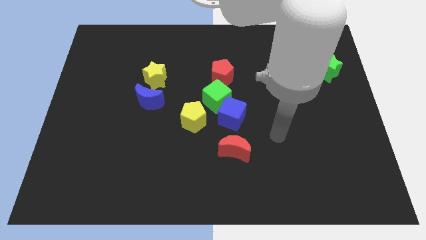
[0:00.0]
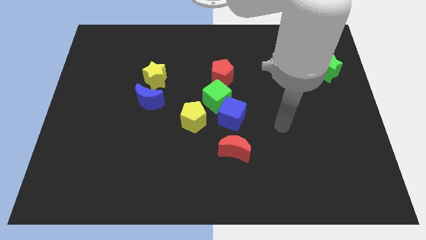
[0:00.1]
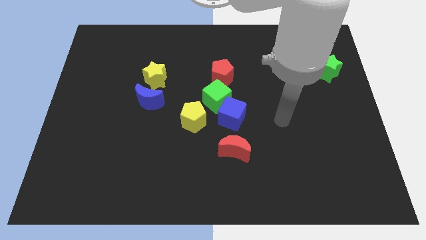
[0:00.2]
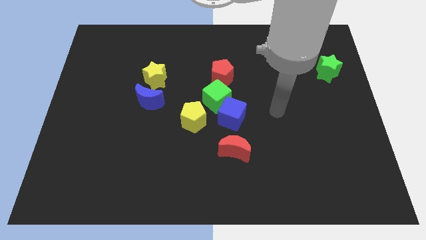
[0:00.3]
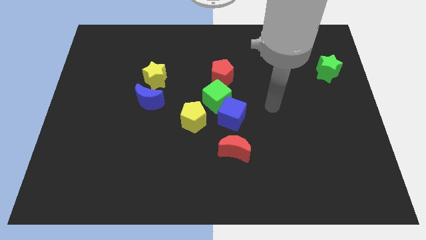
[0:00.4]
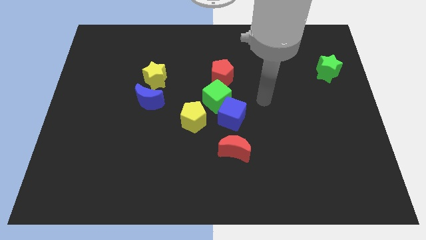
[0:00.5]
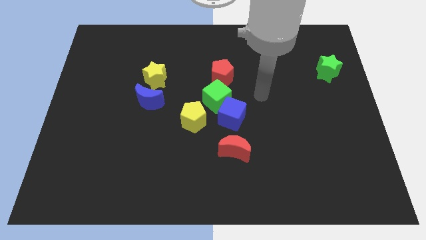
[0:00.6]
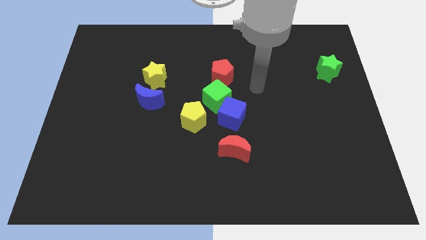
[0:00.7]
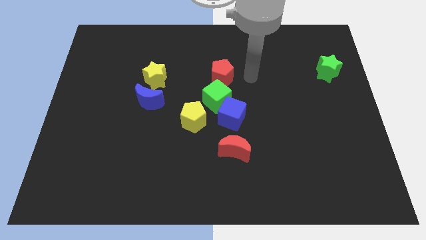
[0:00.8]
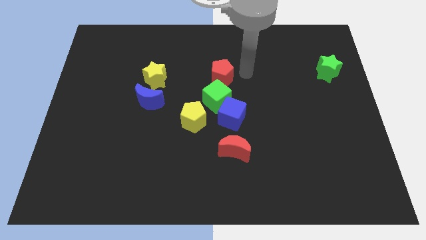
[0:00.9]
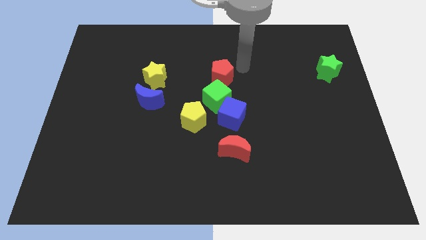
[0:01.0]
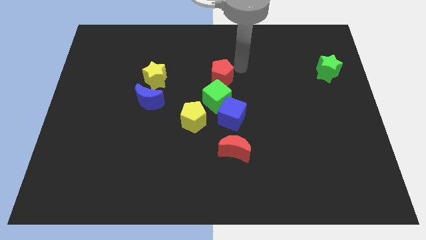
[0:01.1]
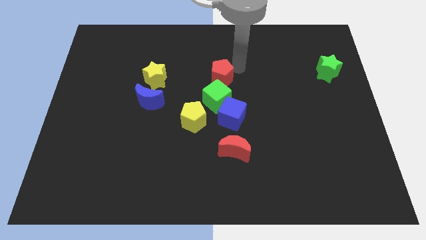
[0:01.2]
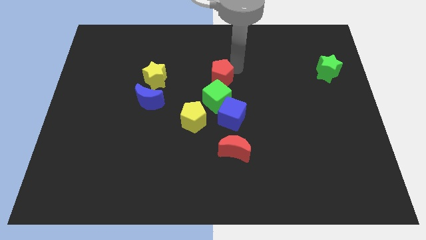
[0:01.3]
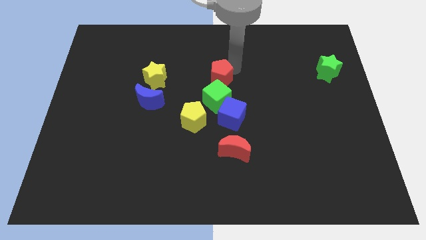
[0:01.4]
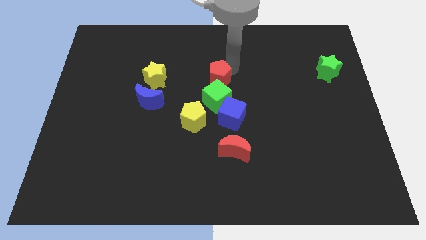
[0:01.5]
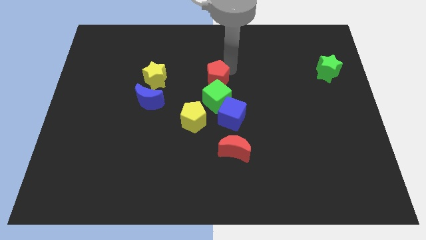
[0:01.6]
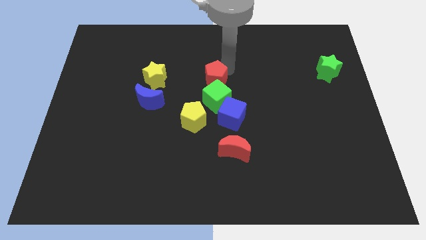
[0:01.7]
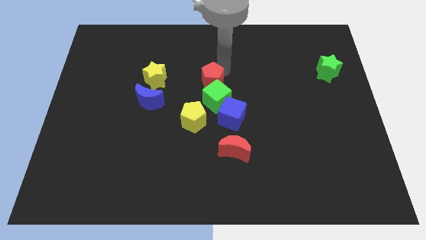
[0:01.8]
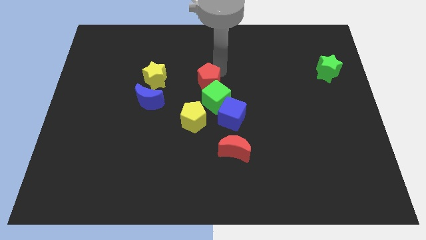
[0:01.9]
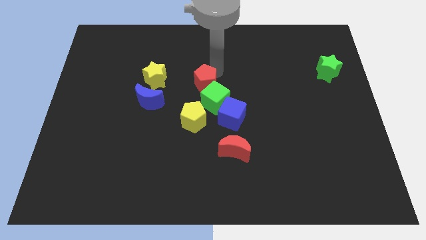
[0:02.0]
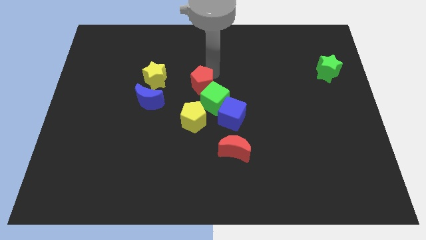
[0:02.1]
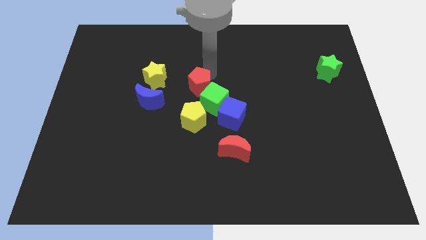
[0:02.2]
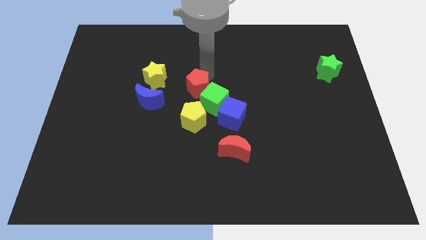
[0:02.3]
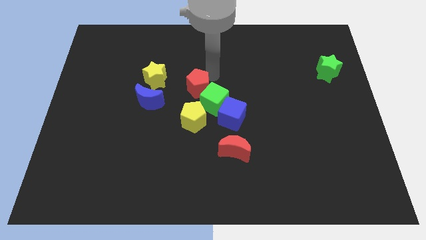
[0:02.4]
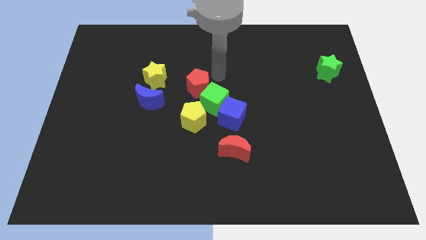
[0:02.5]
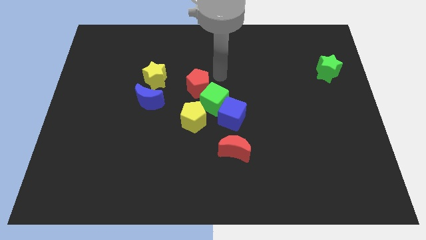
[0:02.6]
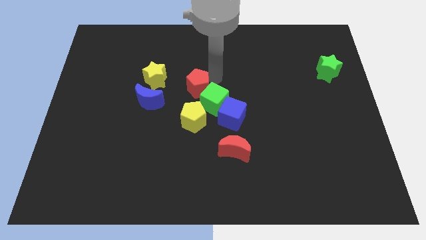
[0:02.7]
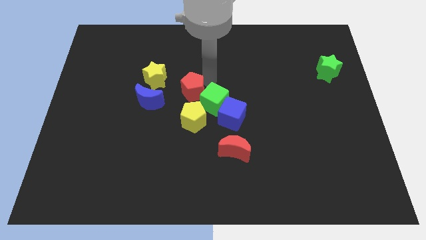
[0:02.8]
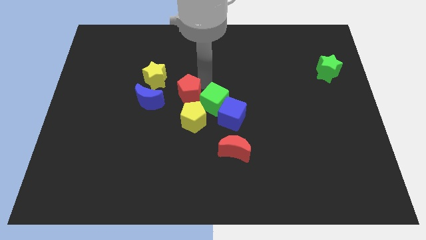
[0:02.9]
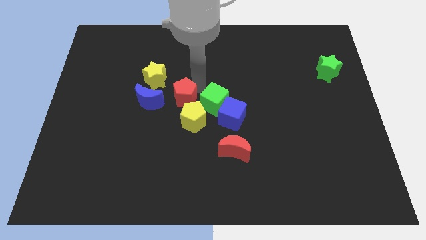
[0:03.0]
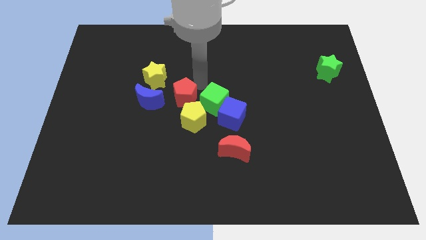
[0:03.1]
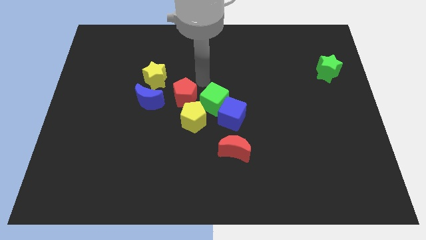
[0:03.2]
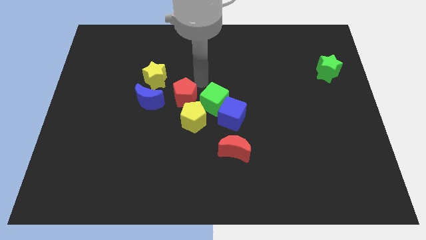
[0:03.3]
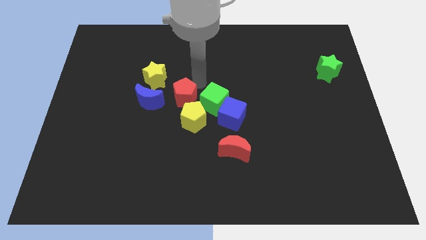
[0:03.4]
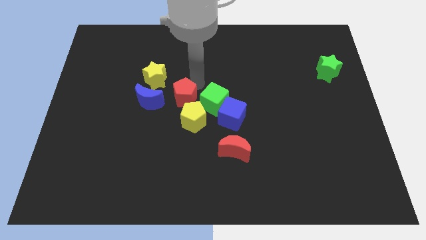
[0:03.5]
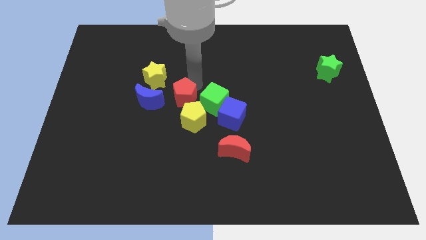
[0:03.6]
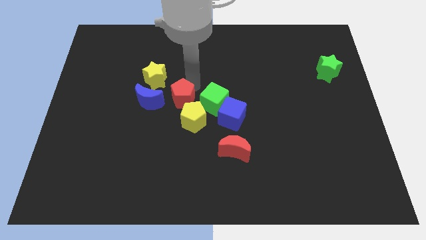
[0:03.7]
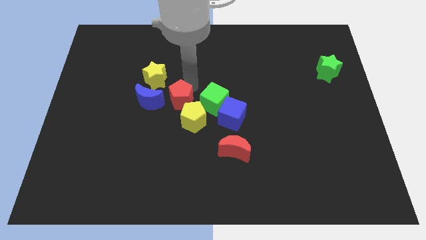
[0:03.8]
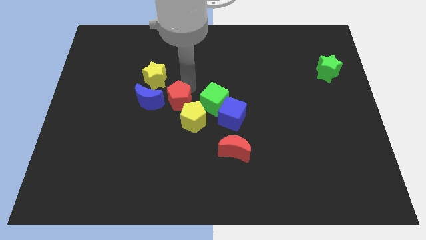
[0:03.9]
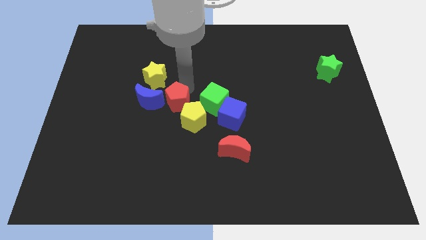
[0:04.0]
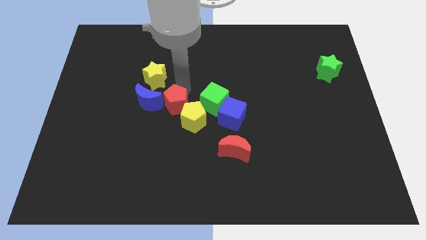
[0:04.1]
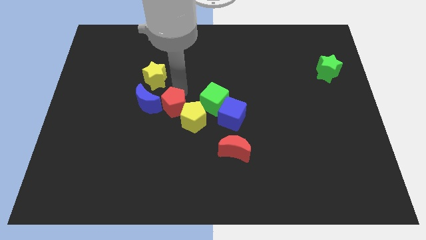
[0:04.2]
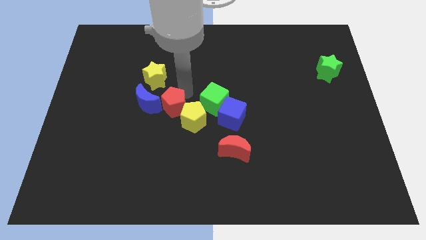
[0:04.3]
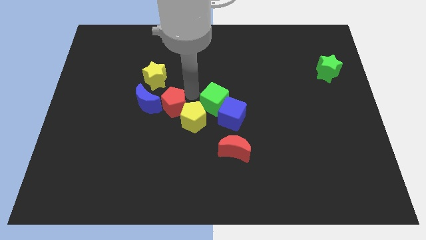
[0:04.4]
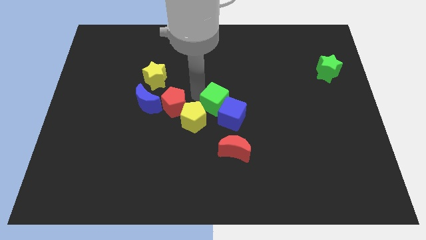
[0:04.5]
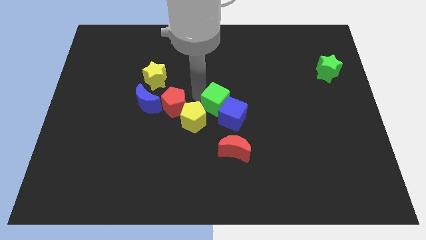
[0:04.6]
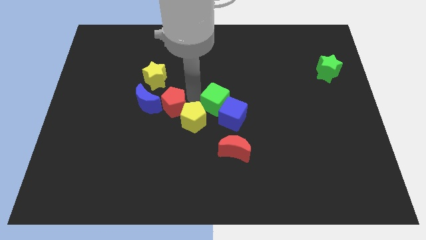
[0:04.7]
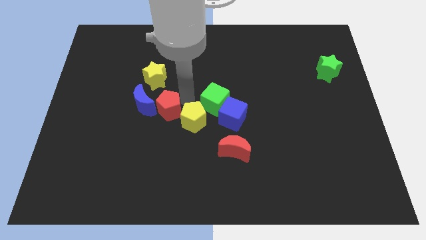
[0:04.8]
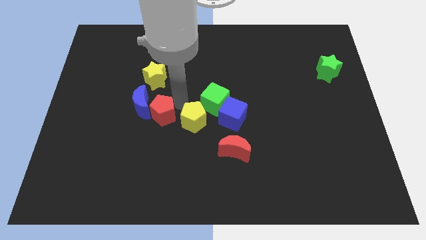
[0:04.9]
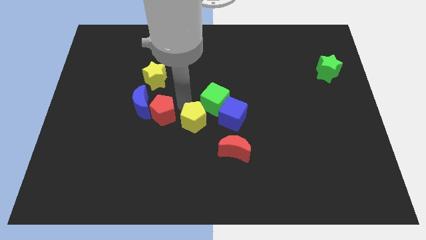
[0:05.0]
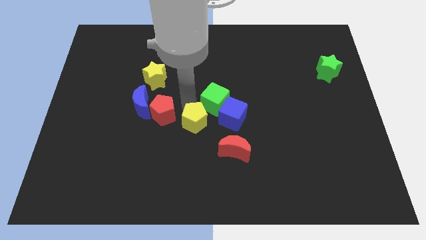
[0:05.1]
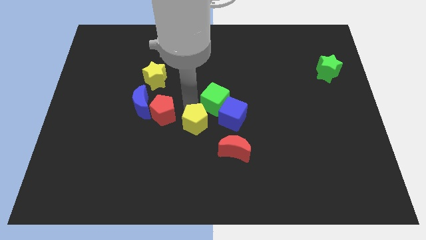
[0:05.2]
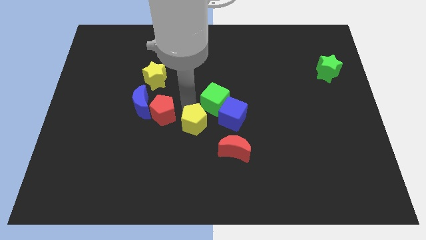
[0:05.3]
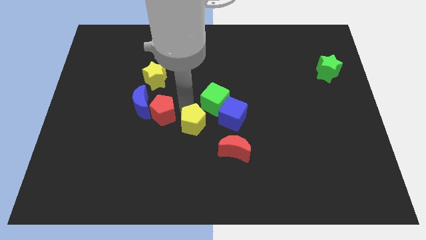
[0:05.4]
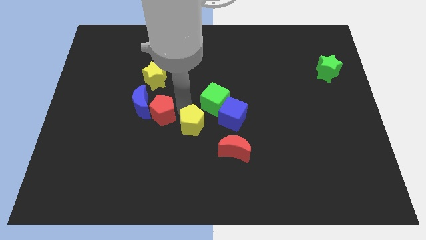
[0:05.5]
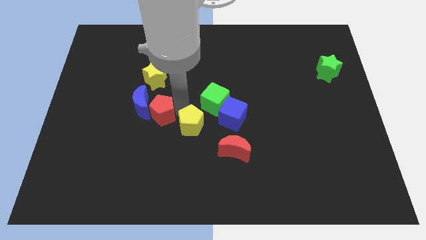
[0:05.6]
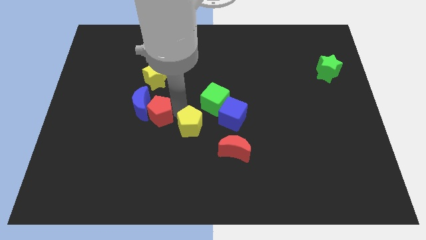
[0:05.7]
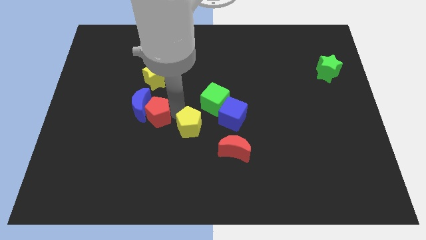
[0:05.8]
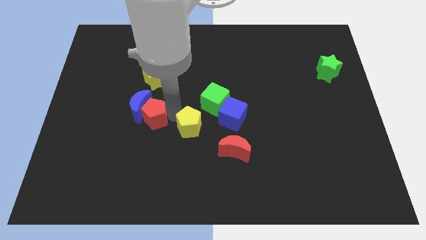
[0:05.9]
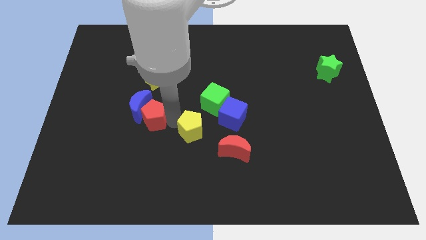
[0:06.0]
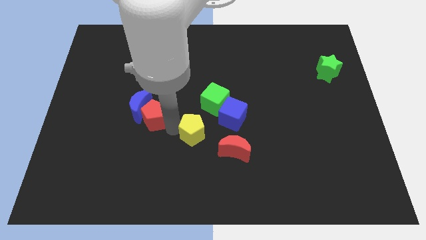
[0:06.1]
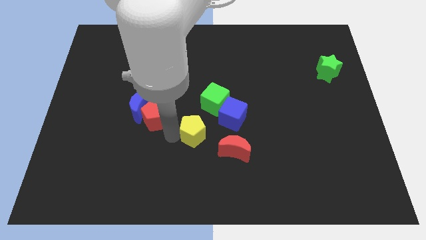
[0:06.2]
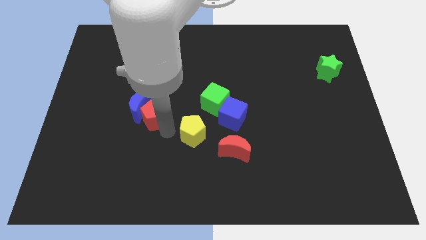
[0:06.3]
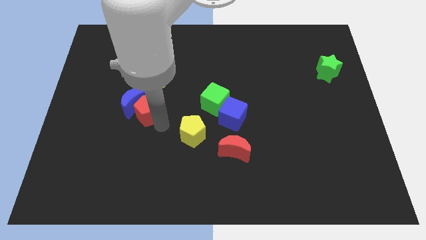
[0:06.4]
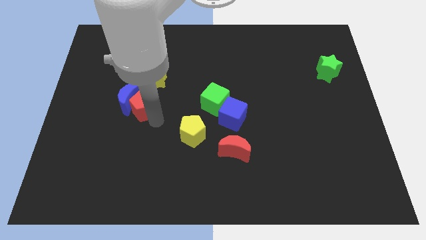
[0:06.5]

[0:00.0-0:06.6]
push the red pentagon to the bottom left of the yellow star

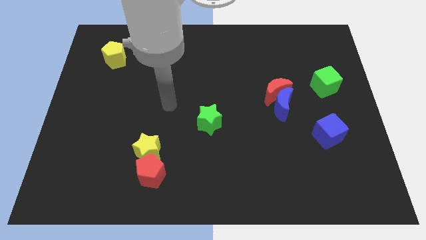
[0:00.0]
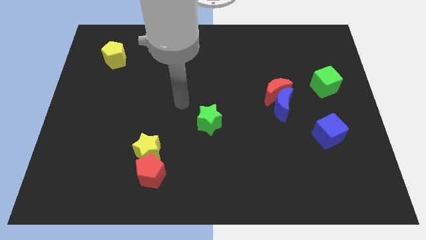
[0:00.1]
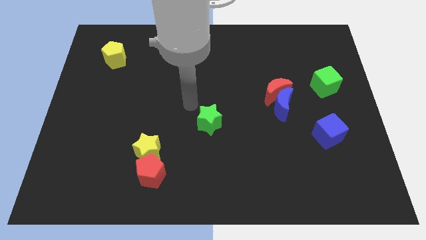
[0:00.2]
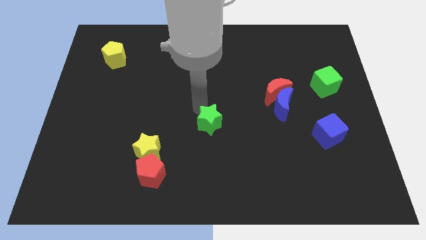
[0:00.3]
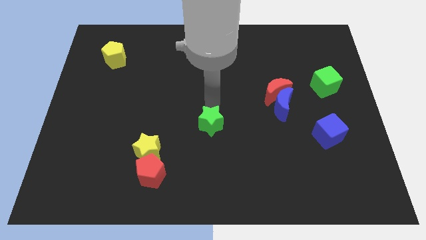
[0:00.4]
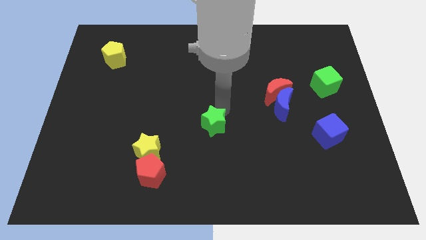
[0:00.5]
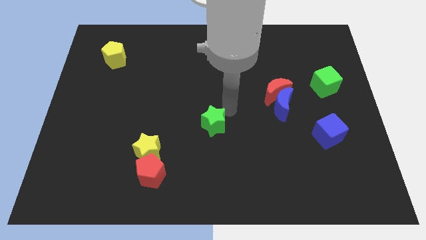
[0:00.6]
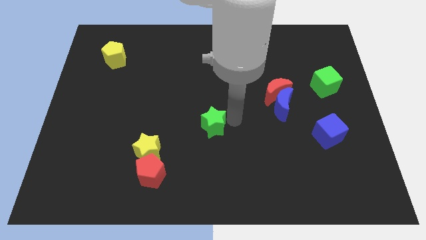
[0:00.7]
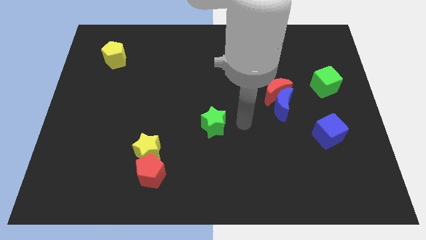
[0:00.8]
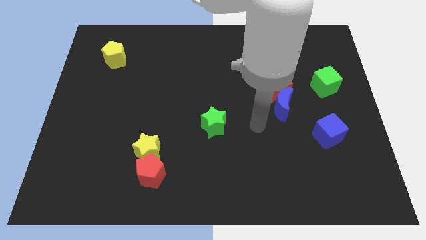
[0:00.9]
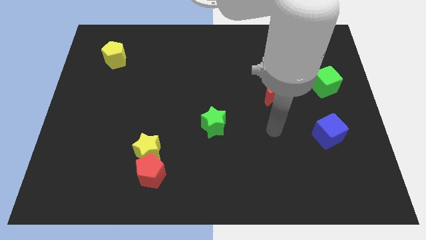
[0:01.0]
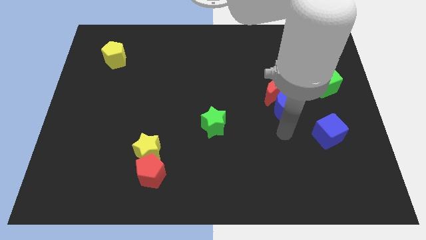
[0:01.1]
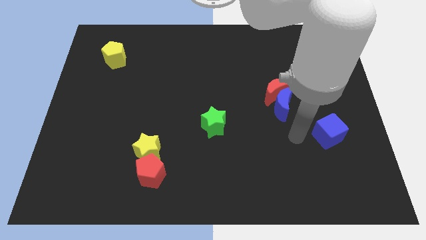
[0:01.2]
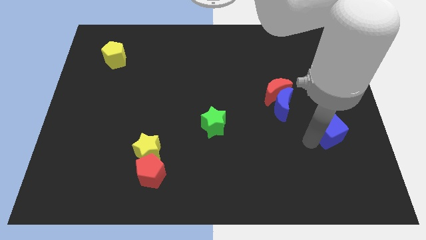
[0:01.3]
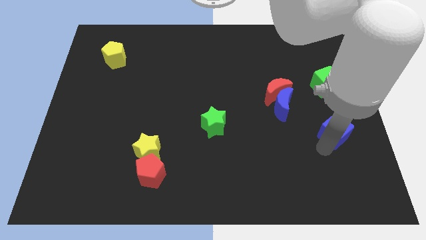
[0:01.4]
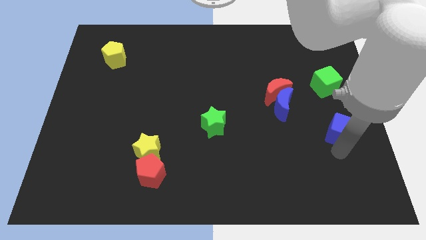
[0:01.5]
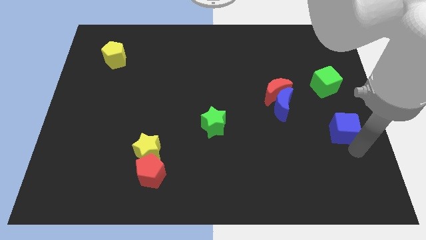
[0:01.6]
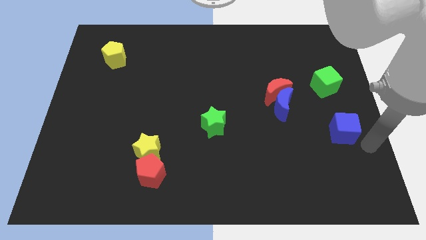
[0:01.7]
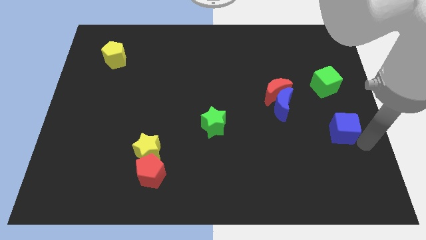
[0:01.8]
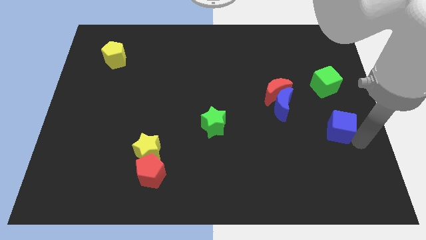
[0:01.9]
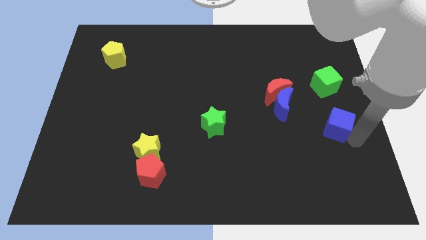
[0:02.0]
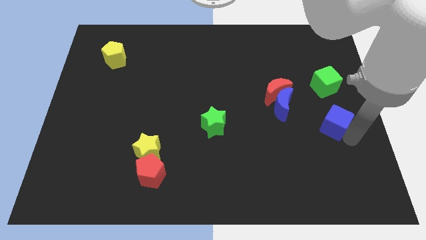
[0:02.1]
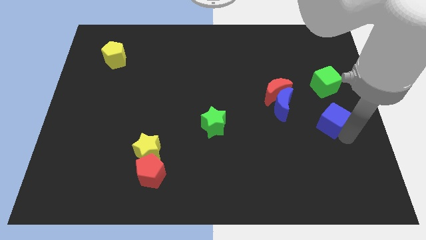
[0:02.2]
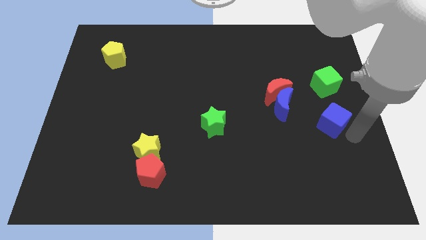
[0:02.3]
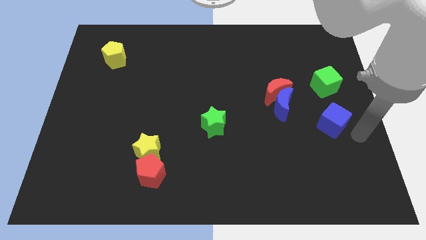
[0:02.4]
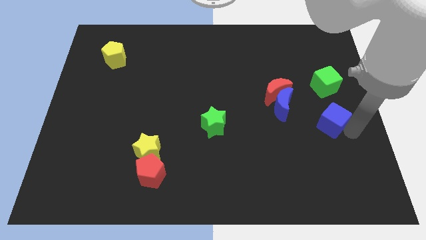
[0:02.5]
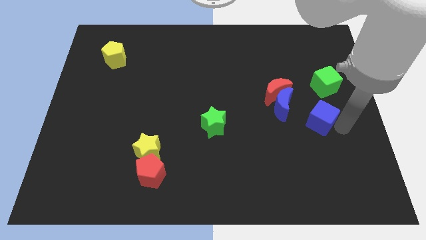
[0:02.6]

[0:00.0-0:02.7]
put the blue cube to the bottom right of the red moon
